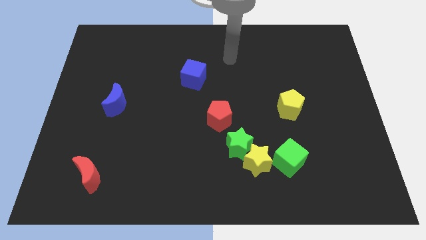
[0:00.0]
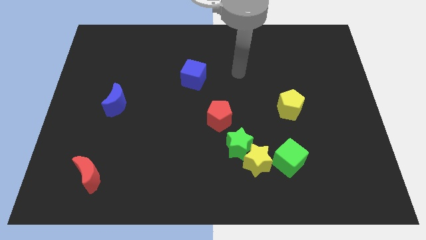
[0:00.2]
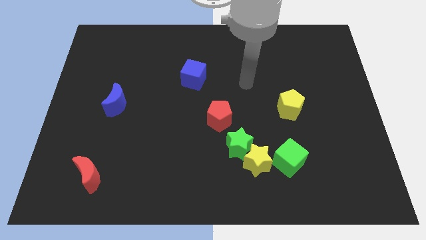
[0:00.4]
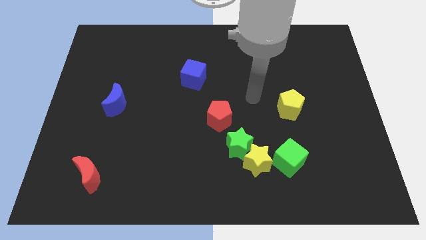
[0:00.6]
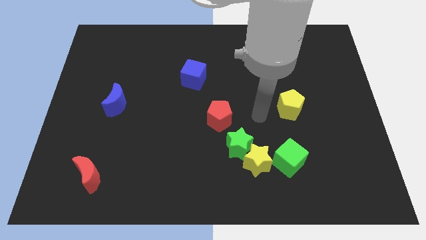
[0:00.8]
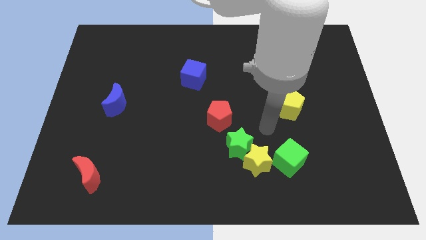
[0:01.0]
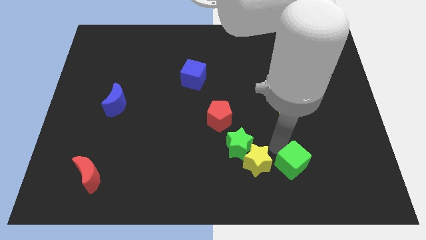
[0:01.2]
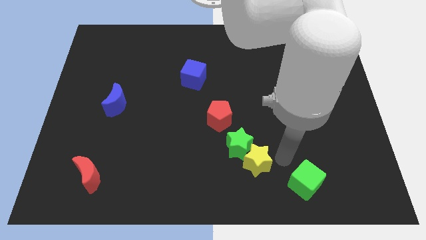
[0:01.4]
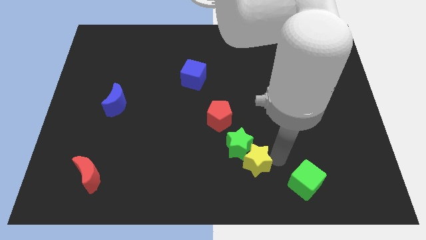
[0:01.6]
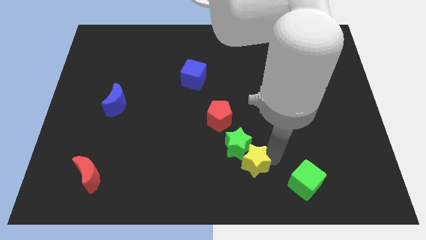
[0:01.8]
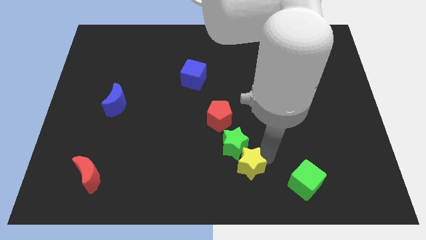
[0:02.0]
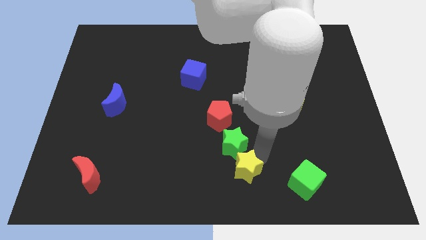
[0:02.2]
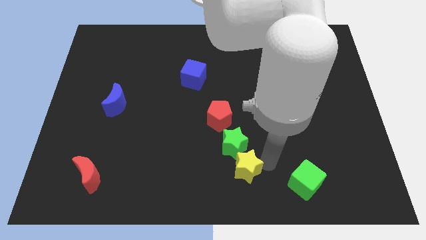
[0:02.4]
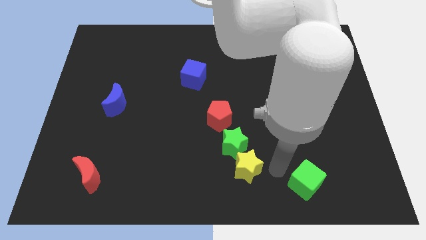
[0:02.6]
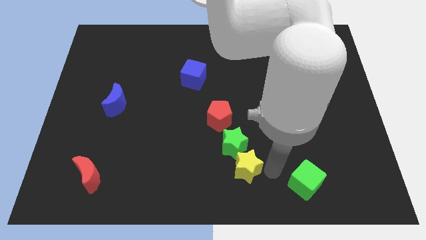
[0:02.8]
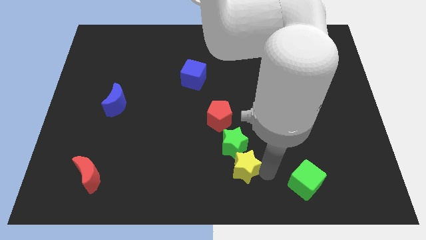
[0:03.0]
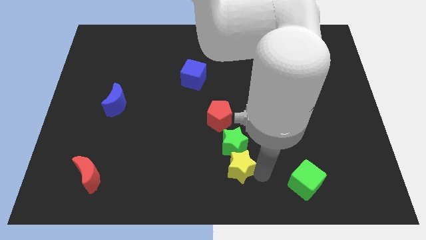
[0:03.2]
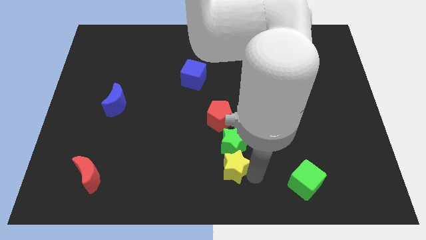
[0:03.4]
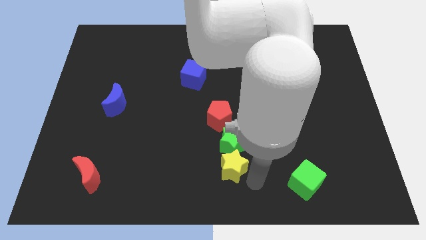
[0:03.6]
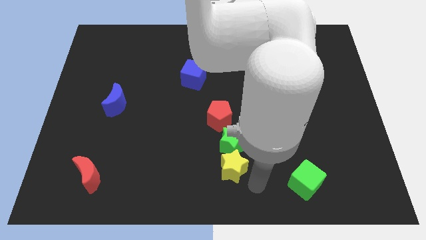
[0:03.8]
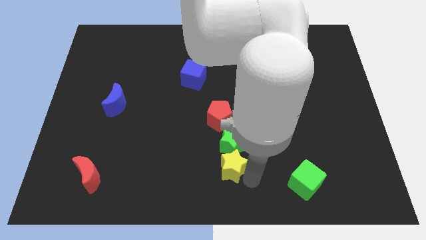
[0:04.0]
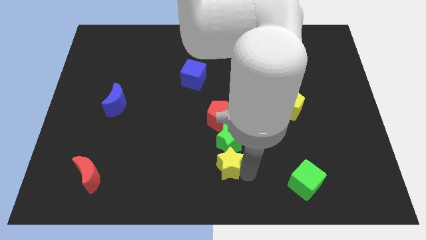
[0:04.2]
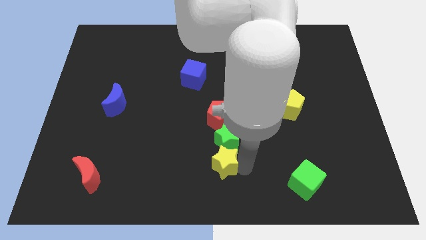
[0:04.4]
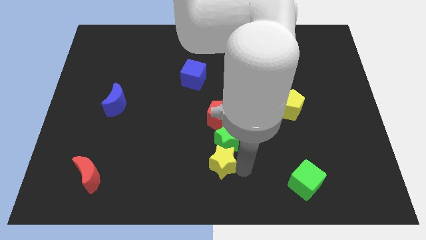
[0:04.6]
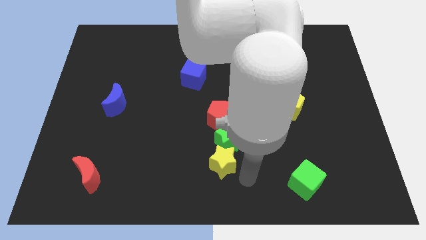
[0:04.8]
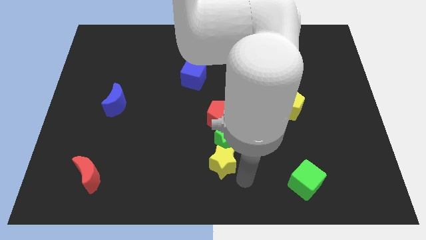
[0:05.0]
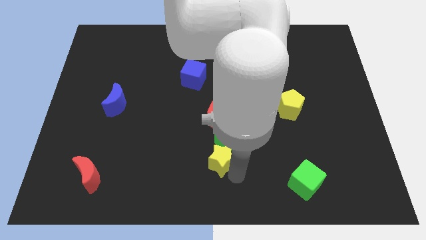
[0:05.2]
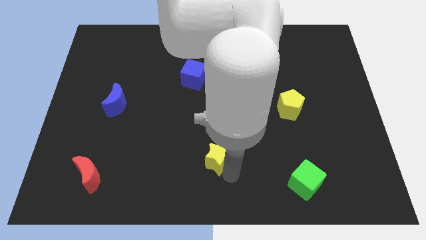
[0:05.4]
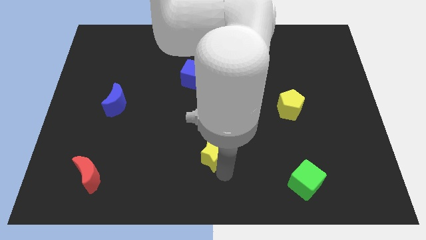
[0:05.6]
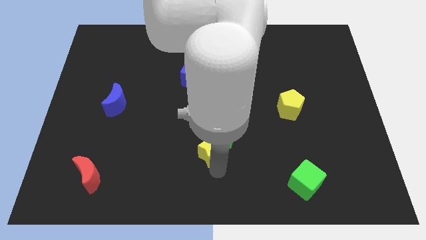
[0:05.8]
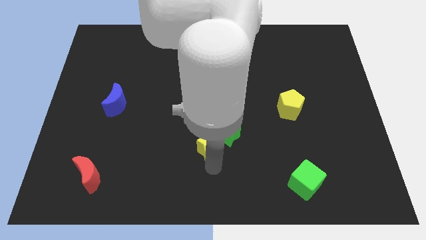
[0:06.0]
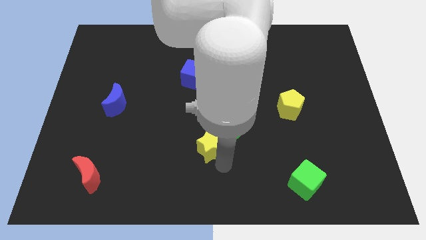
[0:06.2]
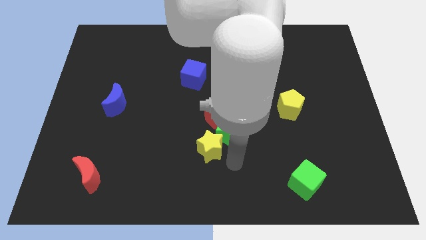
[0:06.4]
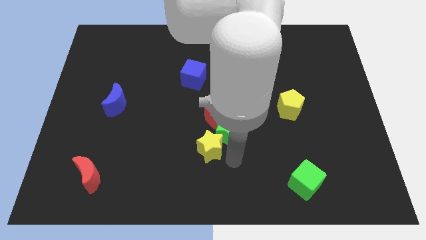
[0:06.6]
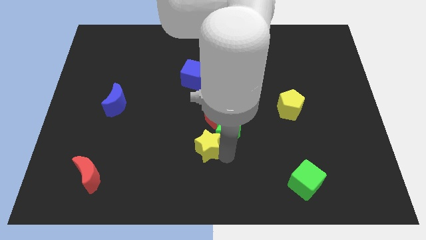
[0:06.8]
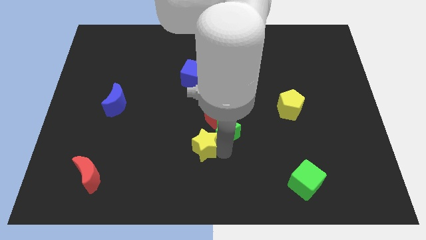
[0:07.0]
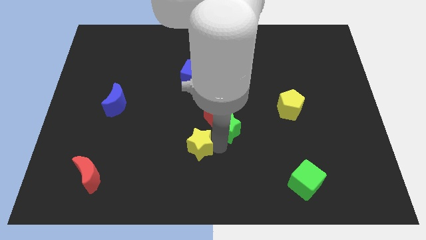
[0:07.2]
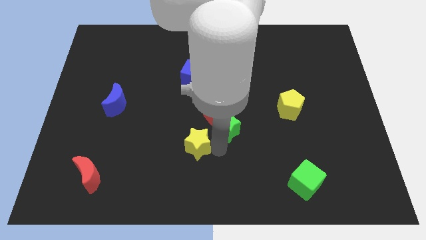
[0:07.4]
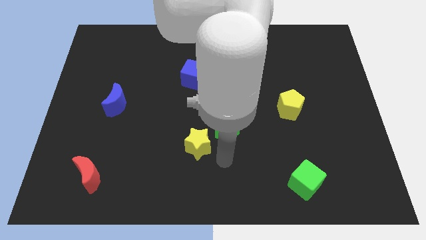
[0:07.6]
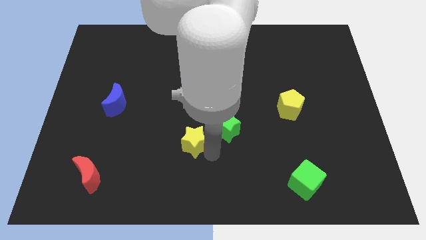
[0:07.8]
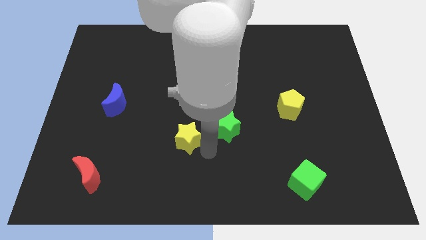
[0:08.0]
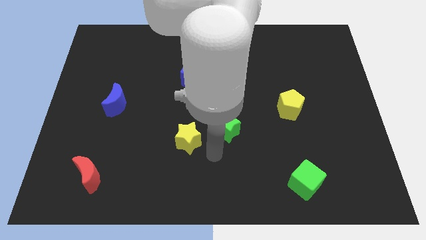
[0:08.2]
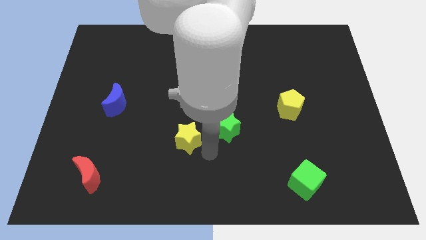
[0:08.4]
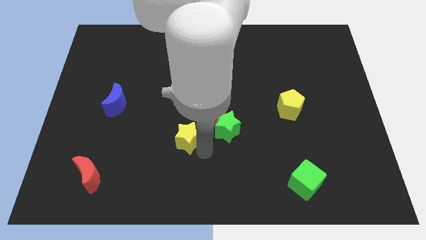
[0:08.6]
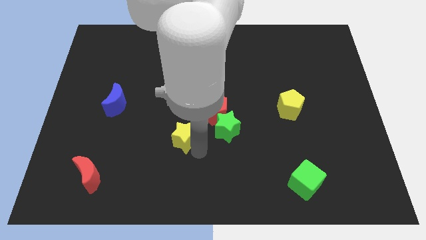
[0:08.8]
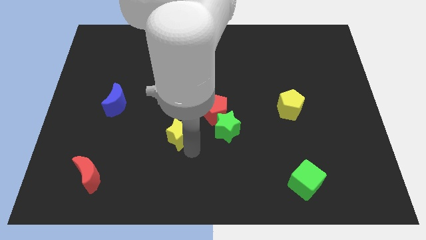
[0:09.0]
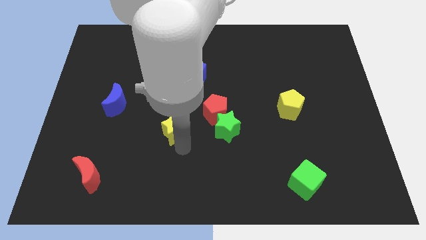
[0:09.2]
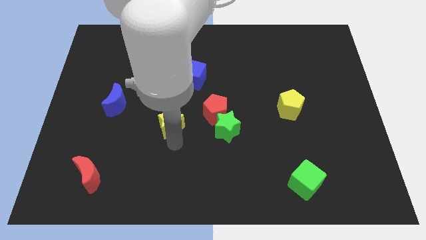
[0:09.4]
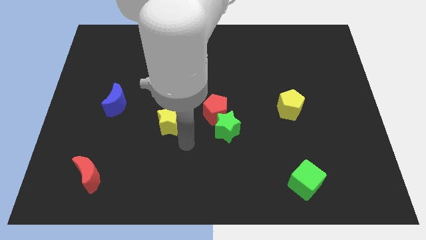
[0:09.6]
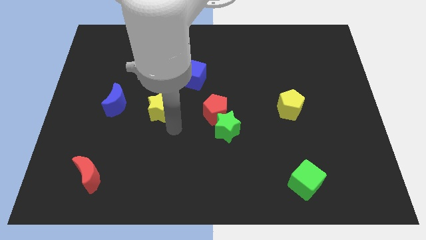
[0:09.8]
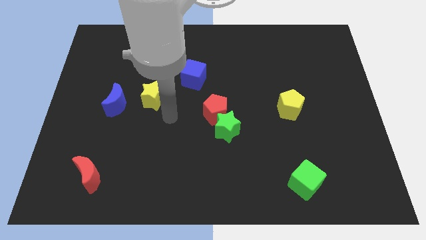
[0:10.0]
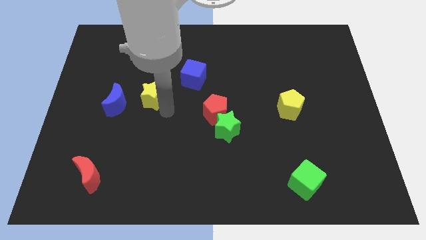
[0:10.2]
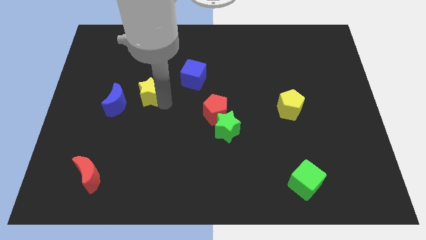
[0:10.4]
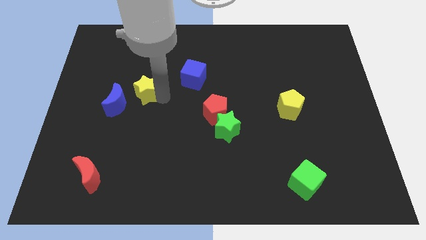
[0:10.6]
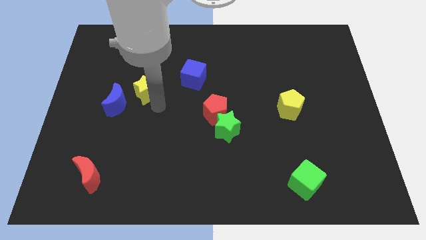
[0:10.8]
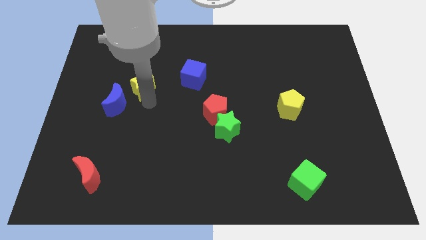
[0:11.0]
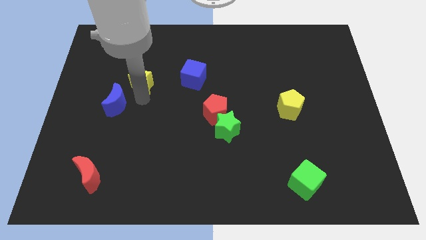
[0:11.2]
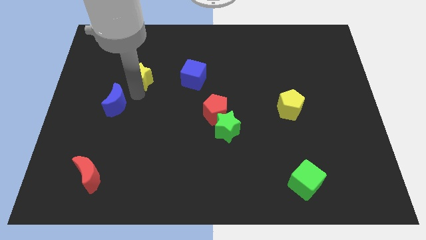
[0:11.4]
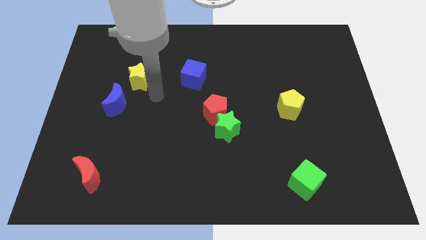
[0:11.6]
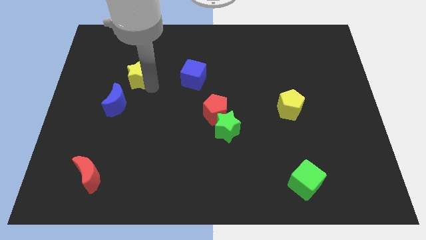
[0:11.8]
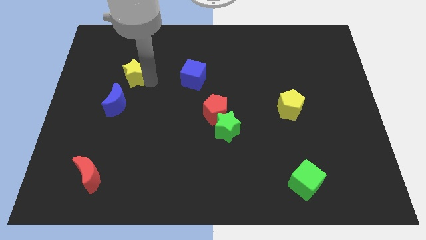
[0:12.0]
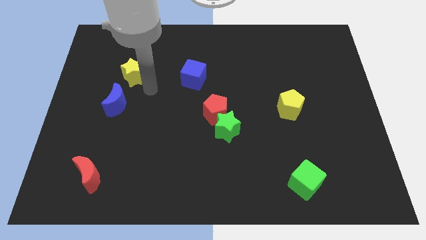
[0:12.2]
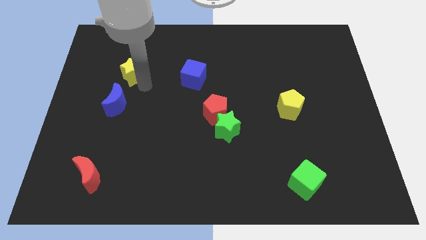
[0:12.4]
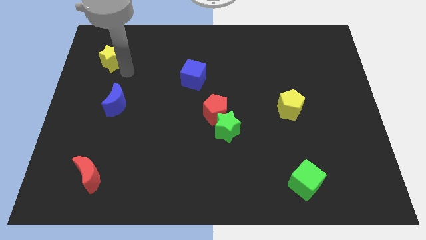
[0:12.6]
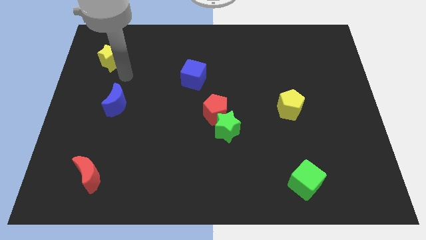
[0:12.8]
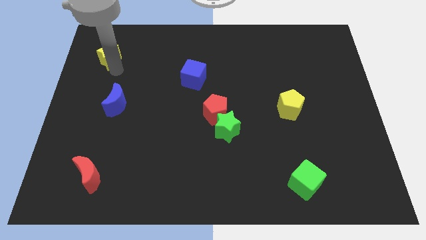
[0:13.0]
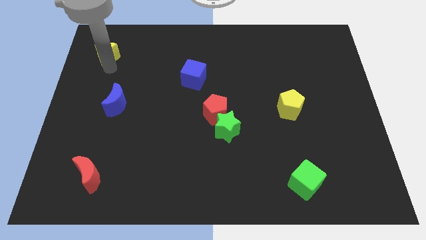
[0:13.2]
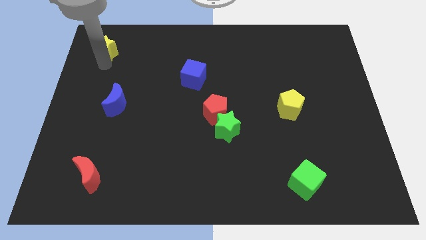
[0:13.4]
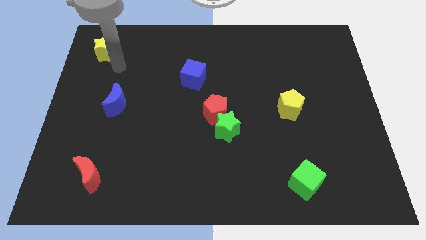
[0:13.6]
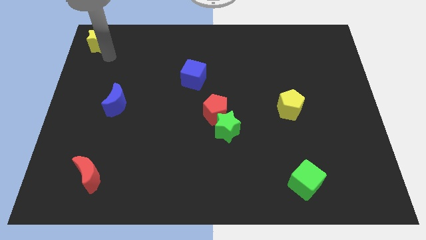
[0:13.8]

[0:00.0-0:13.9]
slide the yellow star to the top left
